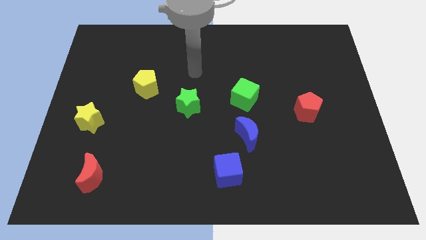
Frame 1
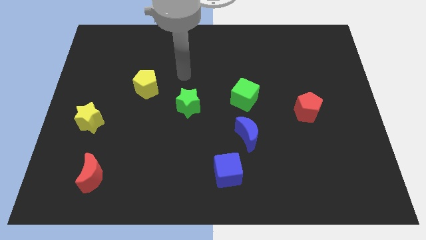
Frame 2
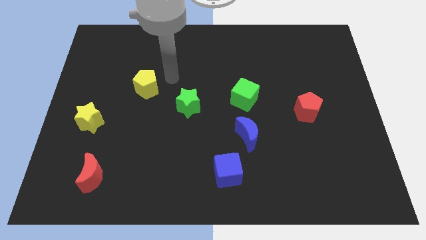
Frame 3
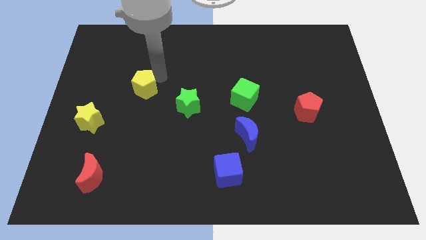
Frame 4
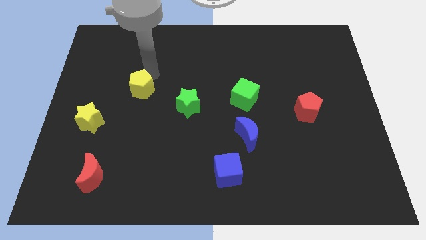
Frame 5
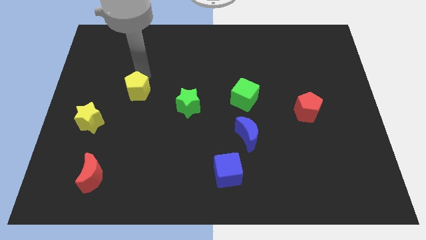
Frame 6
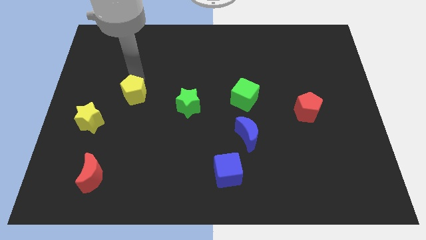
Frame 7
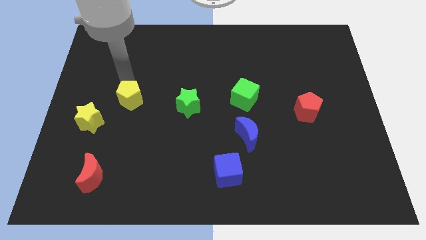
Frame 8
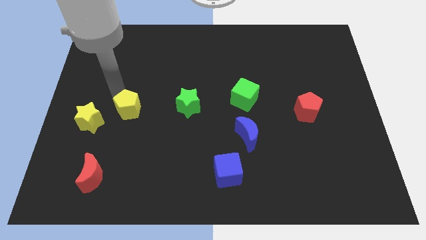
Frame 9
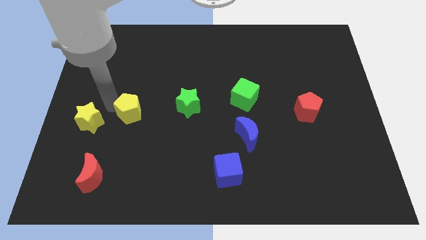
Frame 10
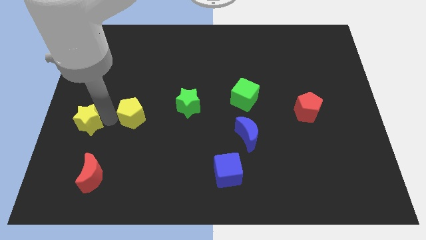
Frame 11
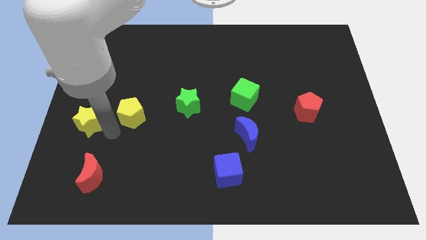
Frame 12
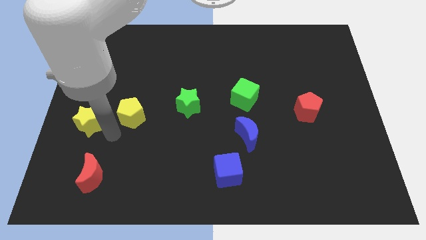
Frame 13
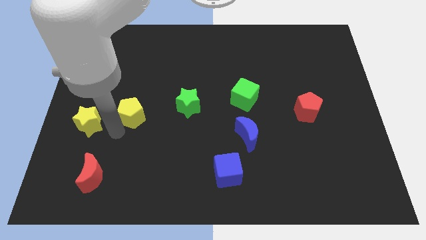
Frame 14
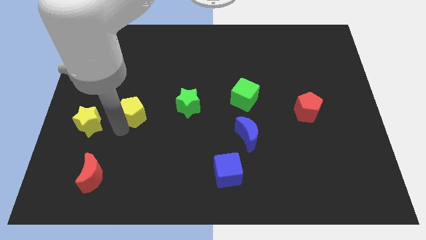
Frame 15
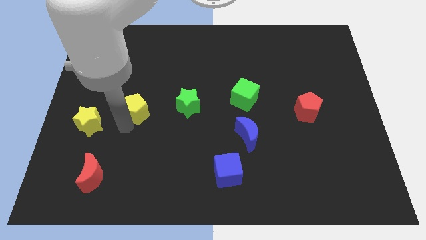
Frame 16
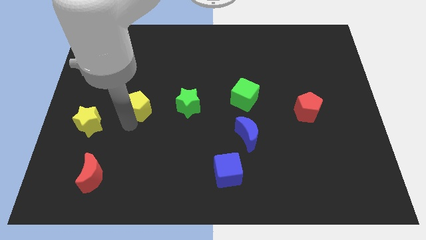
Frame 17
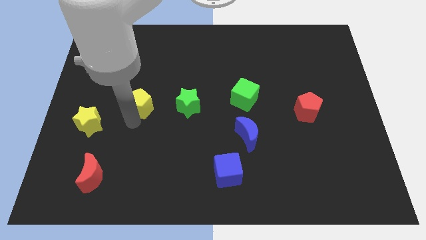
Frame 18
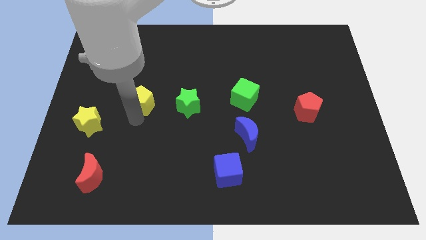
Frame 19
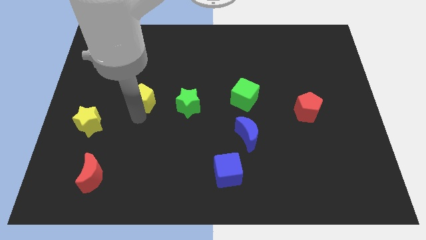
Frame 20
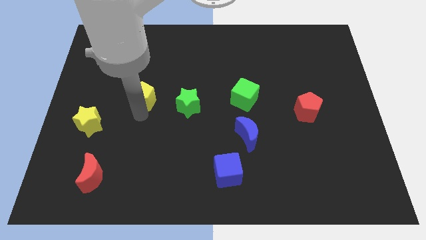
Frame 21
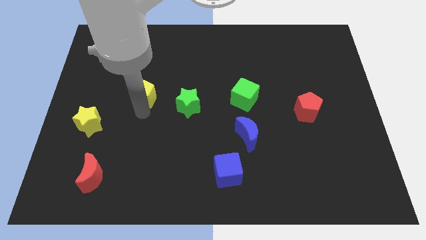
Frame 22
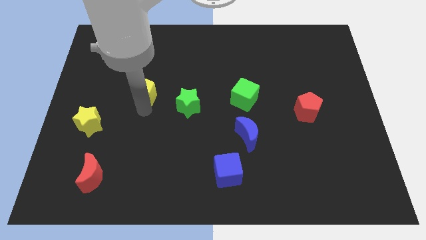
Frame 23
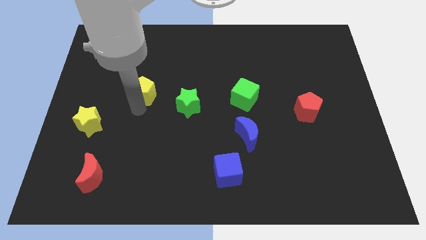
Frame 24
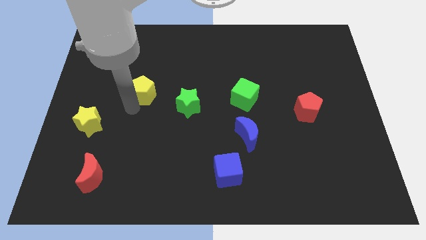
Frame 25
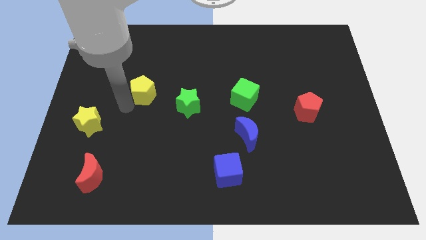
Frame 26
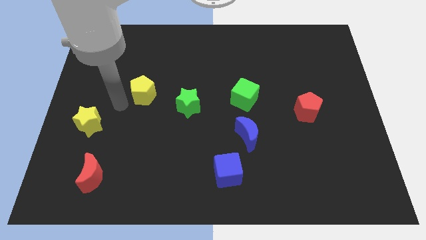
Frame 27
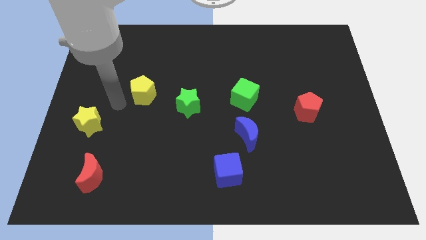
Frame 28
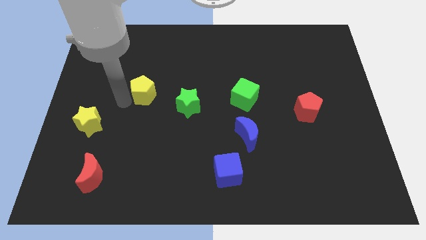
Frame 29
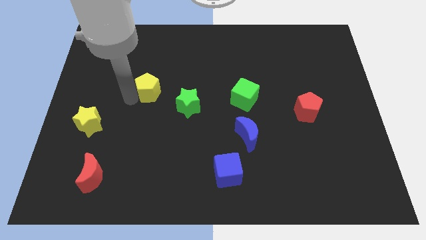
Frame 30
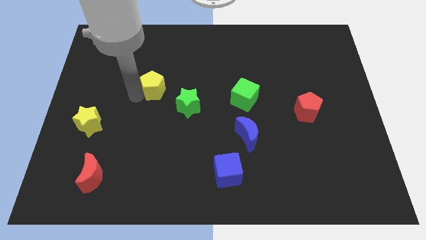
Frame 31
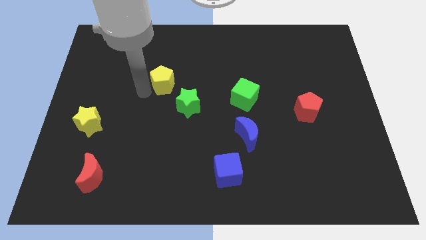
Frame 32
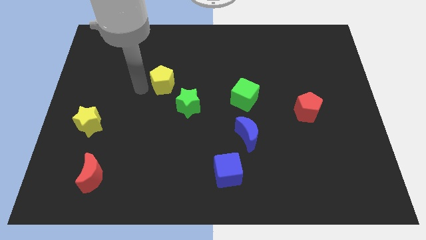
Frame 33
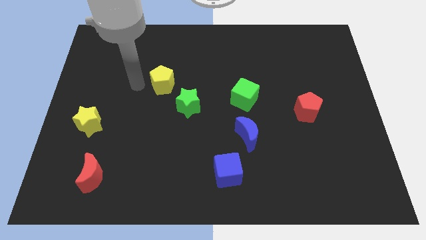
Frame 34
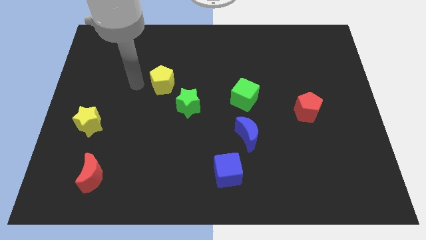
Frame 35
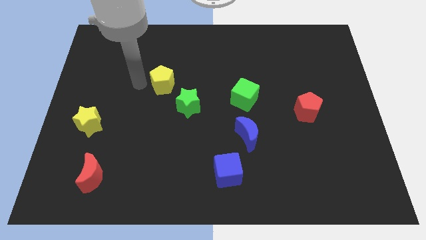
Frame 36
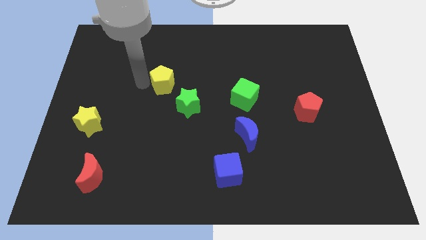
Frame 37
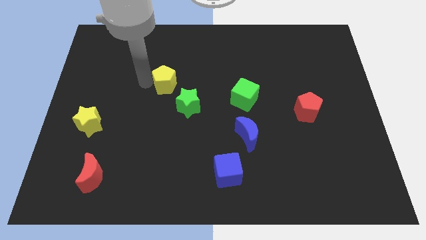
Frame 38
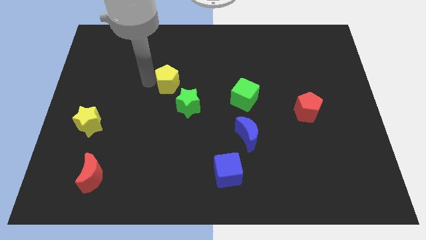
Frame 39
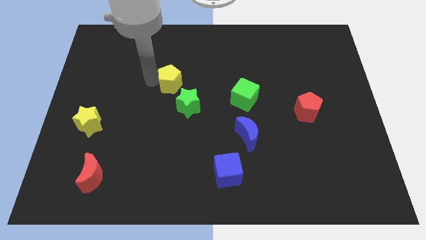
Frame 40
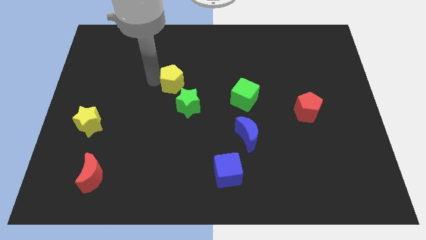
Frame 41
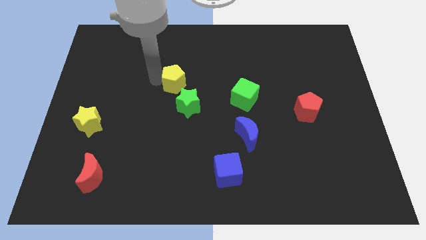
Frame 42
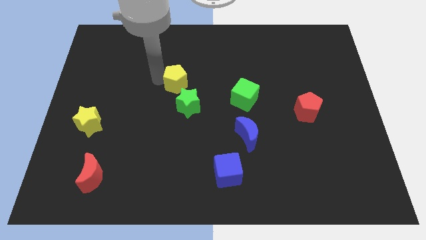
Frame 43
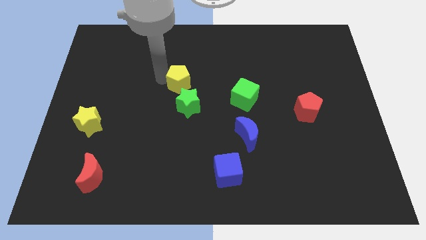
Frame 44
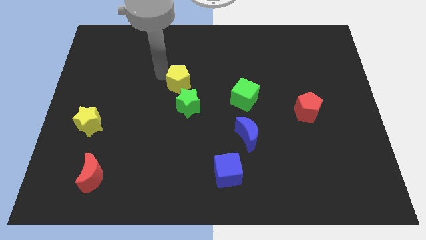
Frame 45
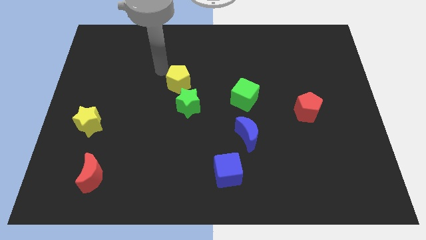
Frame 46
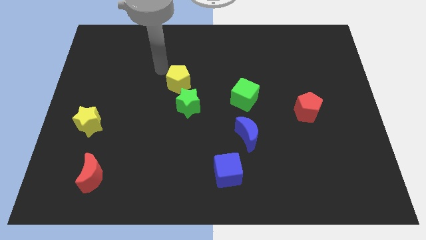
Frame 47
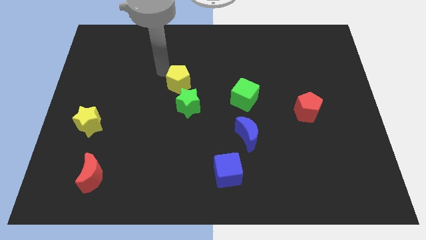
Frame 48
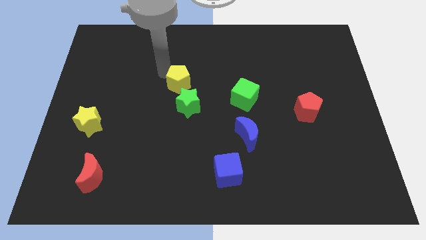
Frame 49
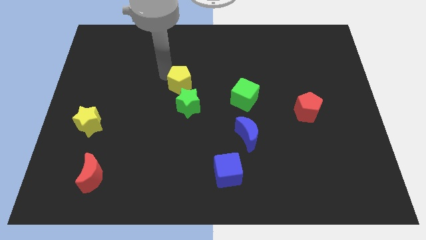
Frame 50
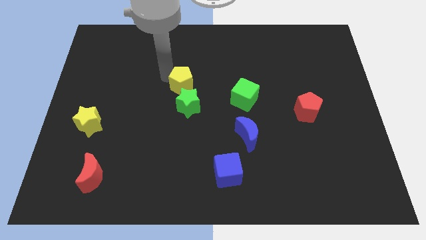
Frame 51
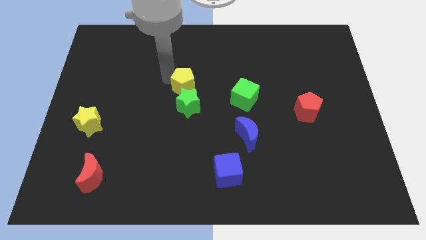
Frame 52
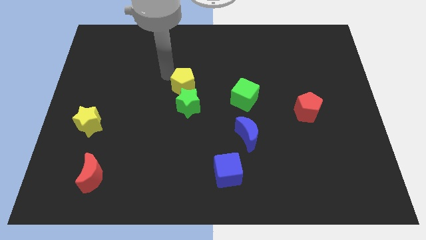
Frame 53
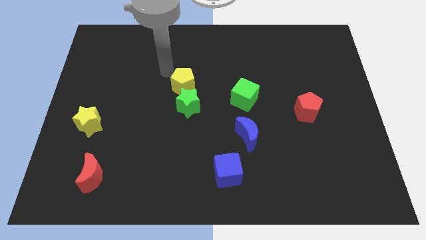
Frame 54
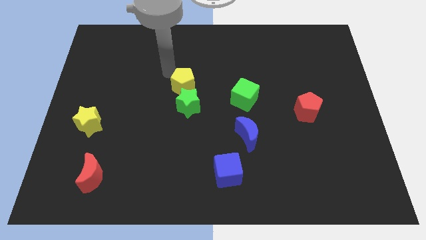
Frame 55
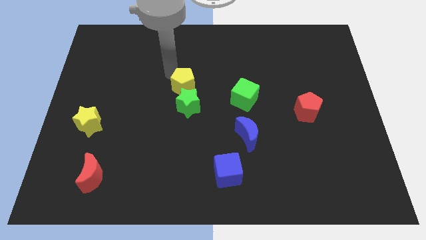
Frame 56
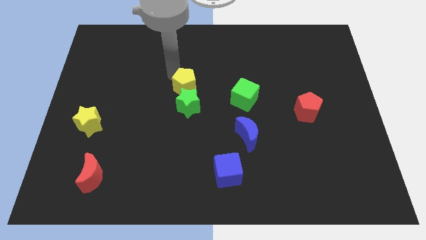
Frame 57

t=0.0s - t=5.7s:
push the yellow pentagon to the left side of the green cube

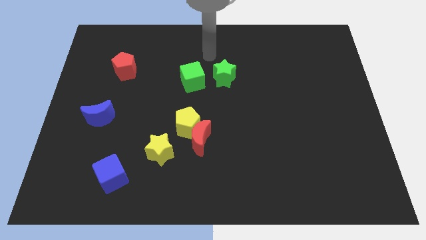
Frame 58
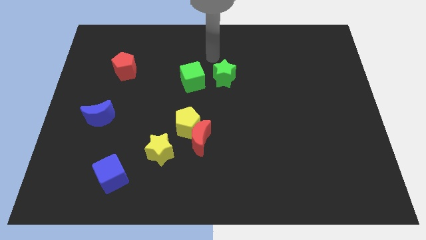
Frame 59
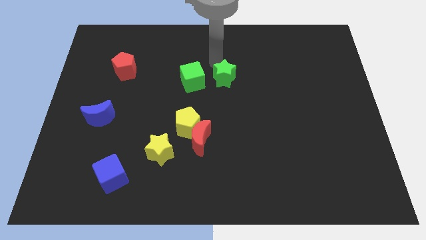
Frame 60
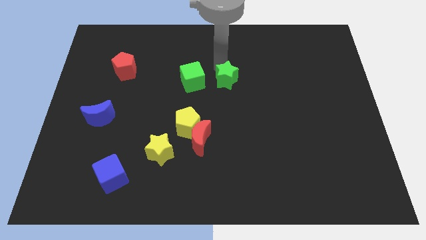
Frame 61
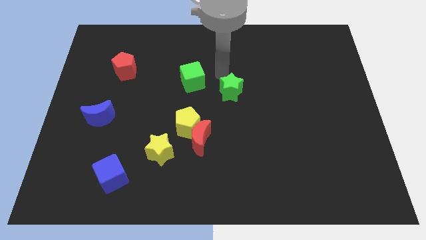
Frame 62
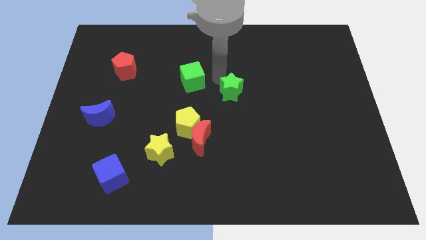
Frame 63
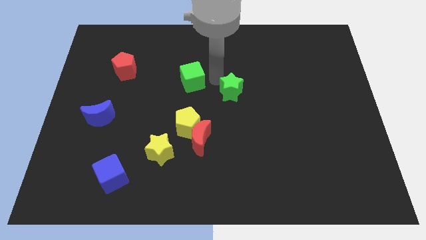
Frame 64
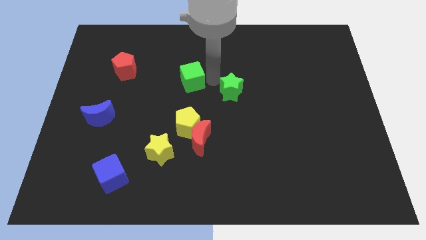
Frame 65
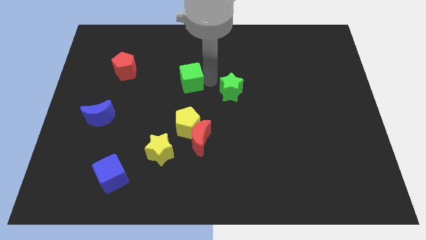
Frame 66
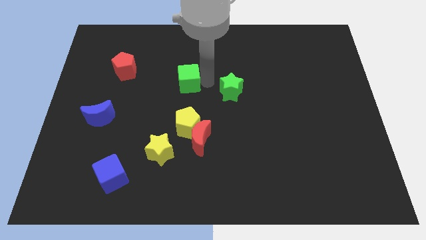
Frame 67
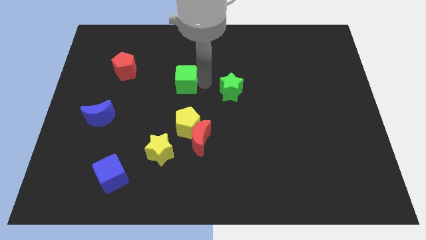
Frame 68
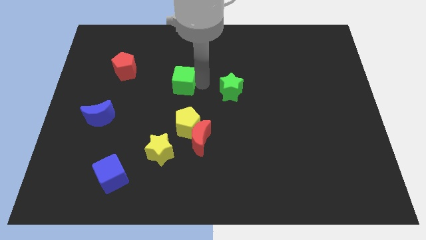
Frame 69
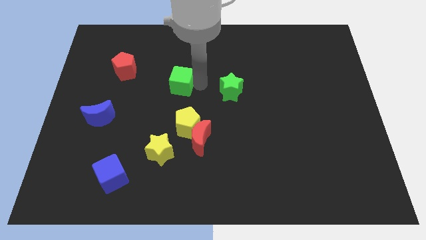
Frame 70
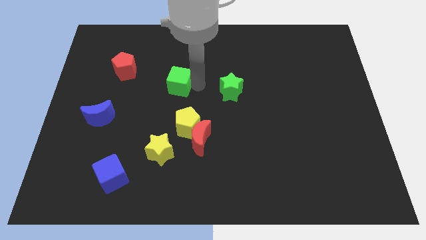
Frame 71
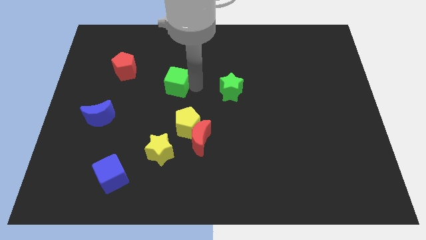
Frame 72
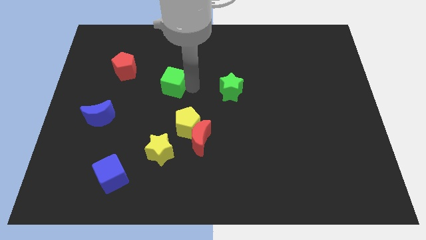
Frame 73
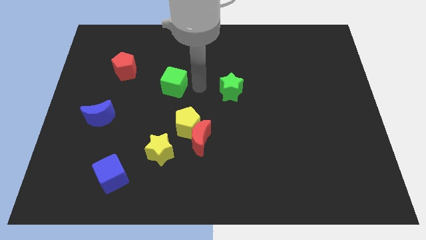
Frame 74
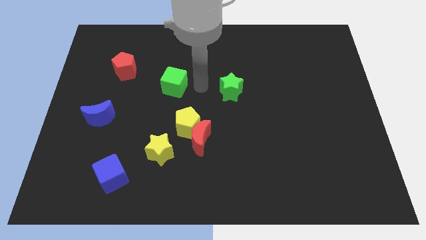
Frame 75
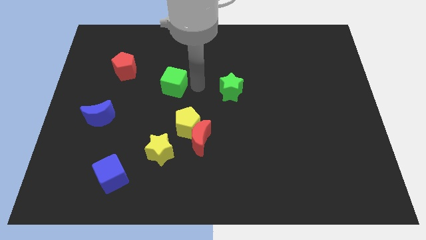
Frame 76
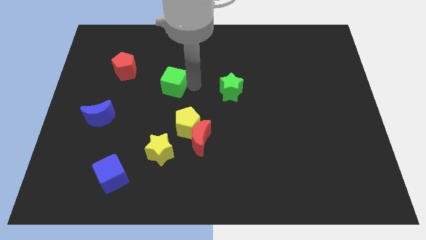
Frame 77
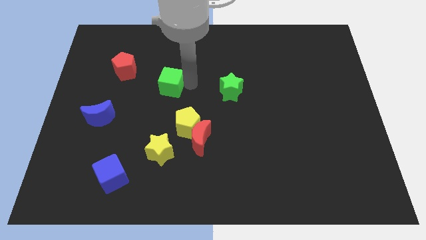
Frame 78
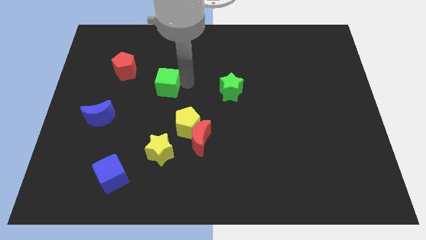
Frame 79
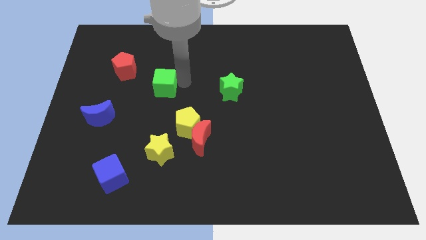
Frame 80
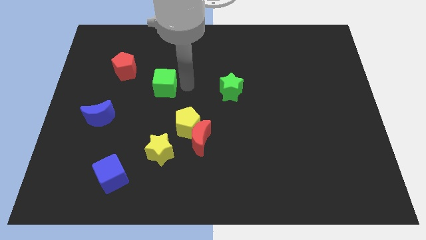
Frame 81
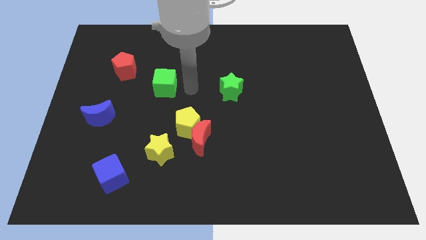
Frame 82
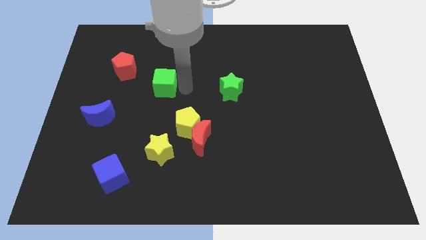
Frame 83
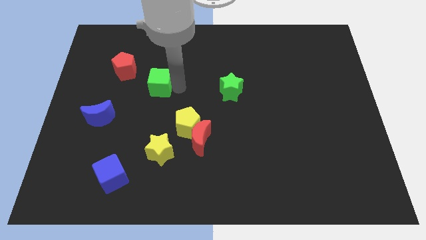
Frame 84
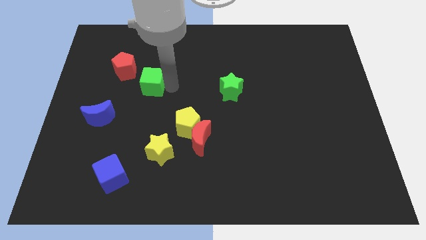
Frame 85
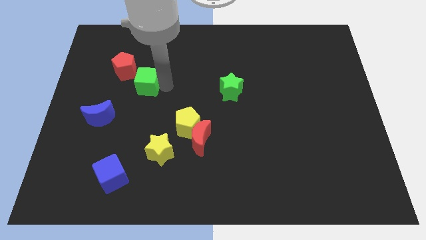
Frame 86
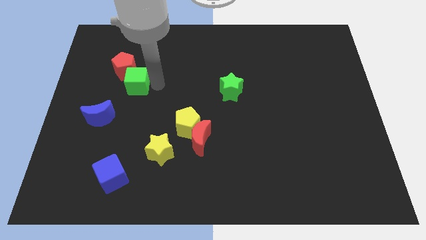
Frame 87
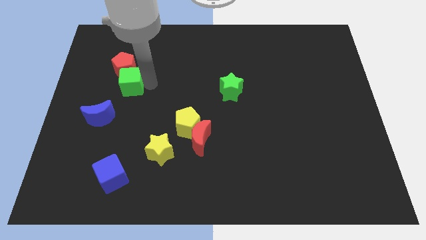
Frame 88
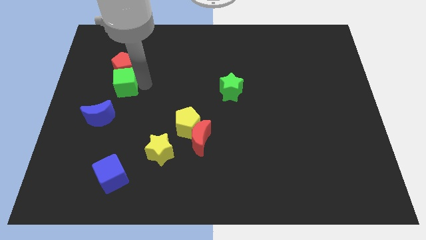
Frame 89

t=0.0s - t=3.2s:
put the green cube diagonally down and to the left of the red pentagon
